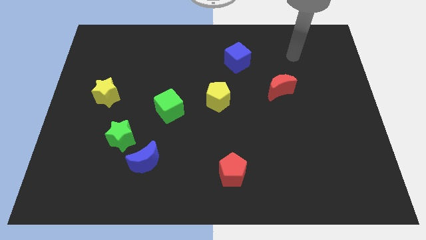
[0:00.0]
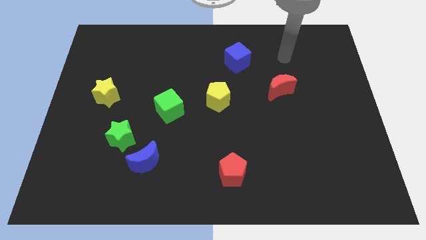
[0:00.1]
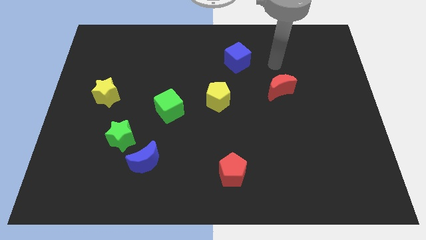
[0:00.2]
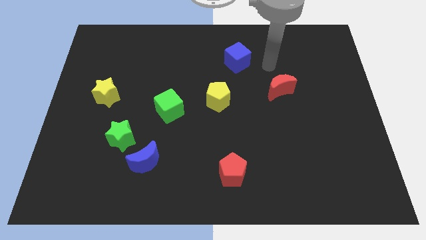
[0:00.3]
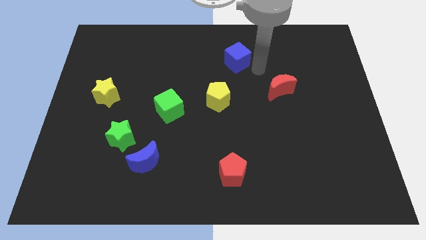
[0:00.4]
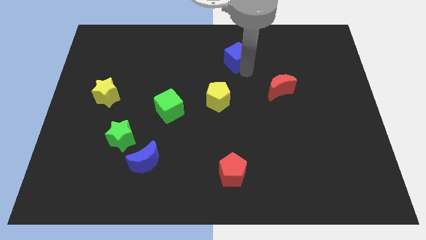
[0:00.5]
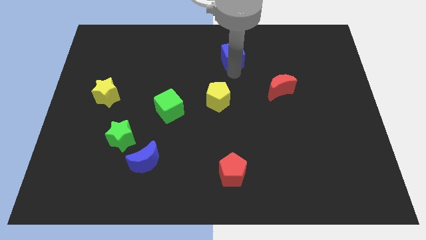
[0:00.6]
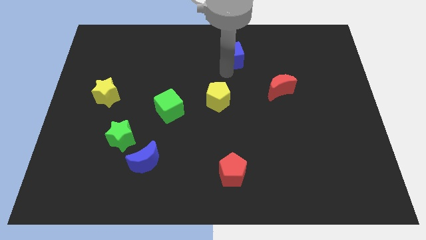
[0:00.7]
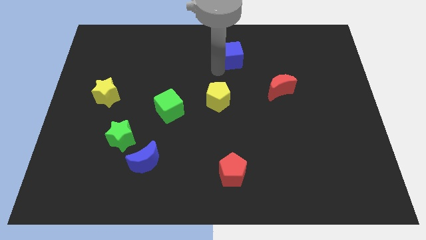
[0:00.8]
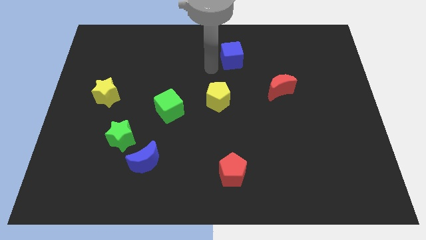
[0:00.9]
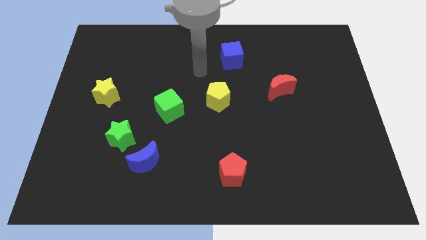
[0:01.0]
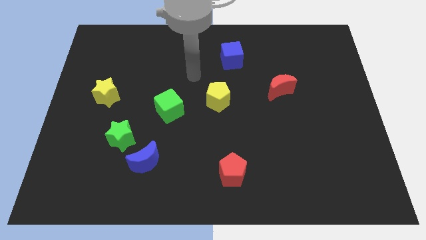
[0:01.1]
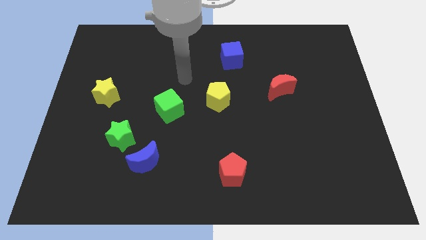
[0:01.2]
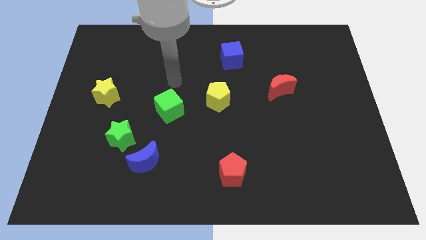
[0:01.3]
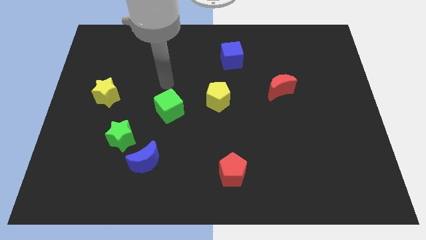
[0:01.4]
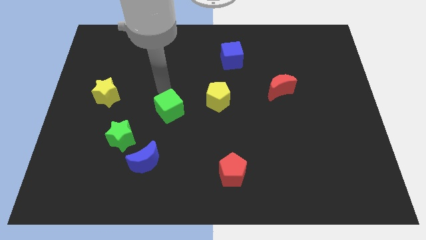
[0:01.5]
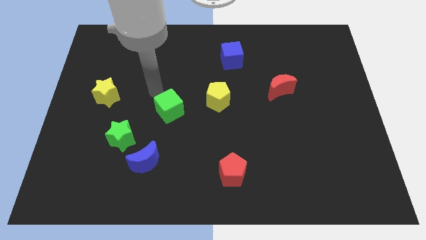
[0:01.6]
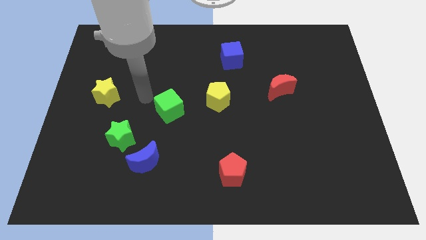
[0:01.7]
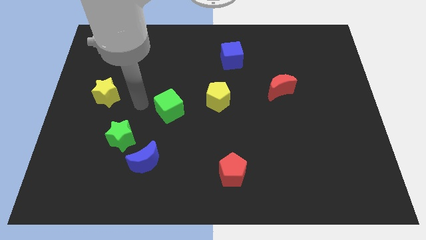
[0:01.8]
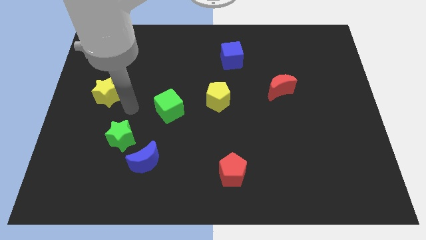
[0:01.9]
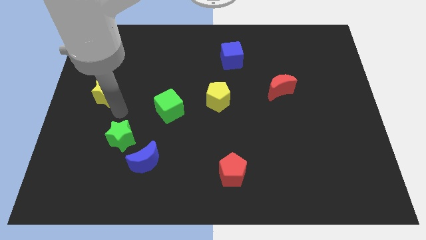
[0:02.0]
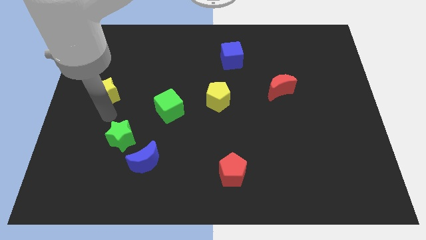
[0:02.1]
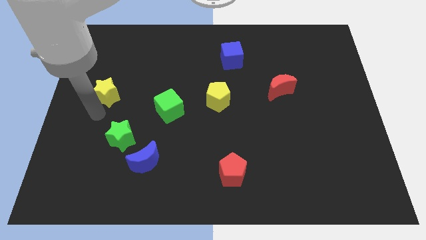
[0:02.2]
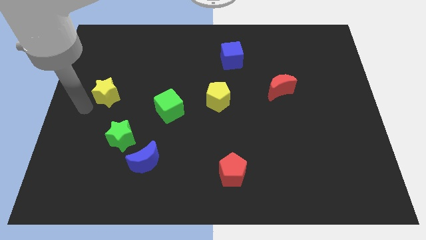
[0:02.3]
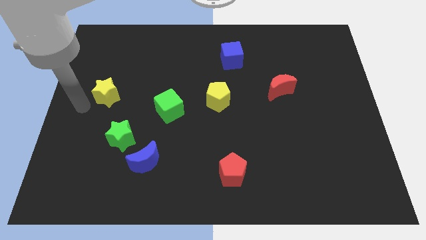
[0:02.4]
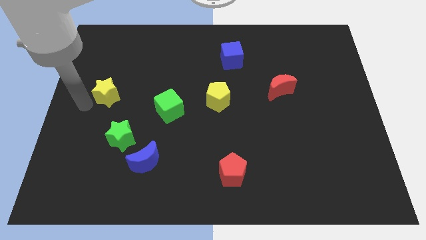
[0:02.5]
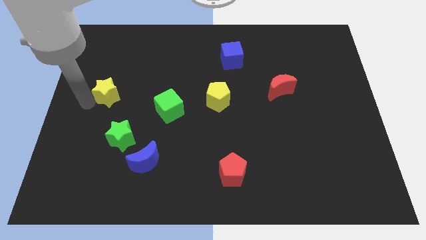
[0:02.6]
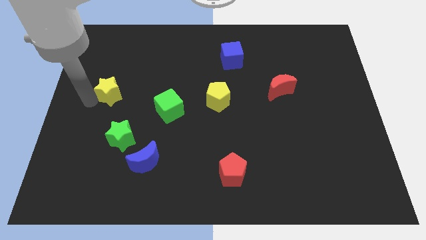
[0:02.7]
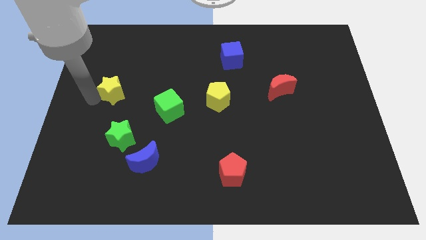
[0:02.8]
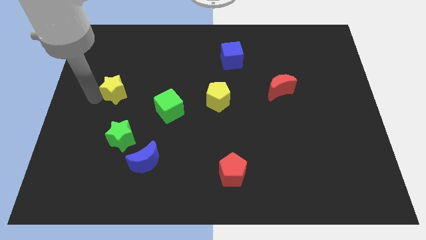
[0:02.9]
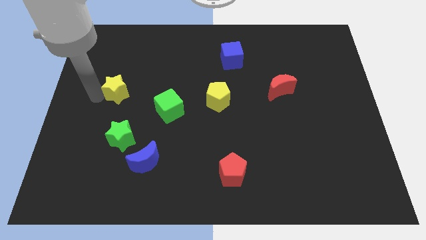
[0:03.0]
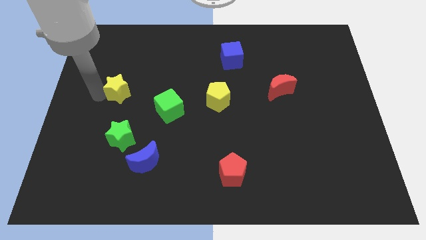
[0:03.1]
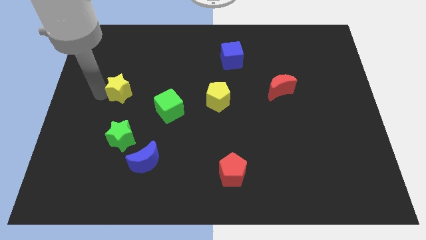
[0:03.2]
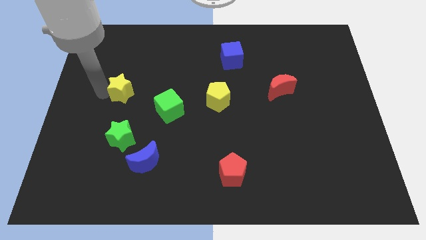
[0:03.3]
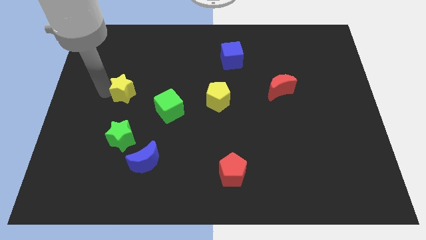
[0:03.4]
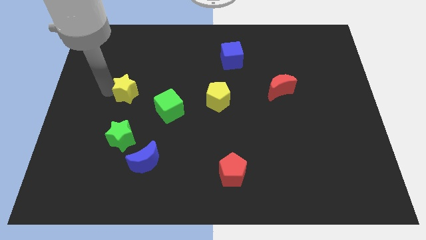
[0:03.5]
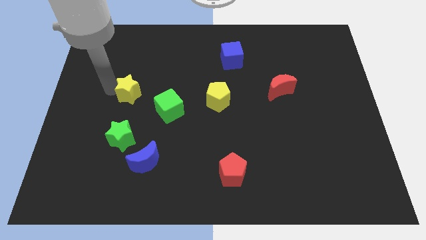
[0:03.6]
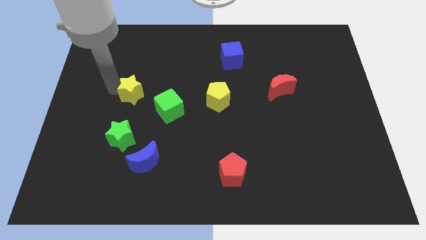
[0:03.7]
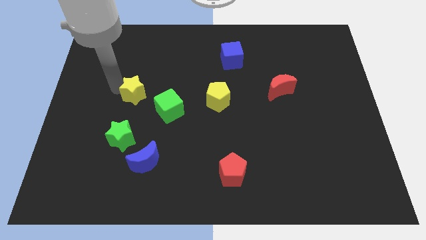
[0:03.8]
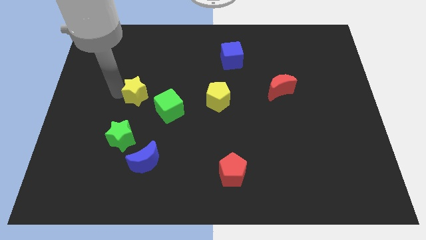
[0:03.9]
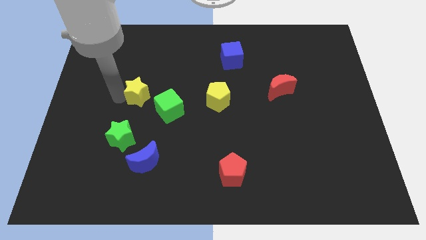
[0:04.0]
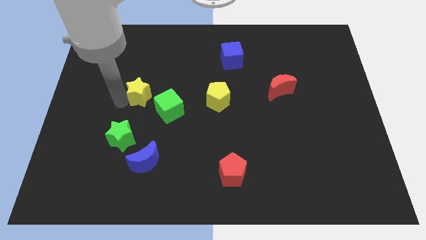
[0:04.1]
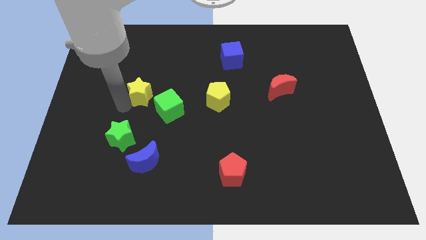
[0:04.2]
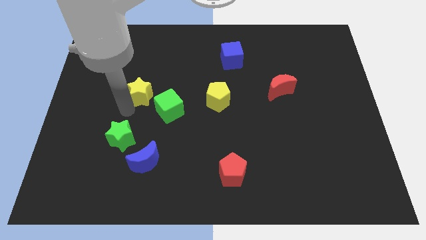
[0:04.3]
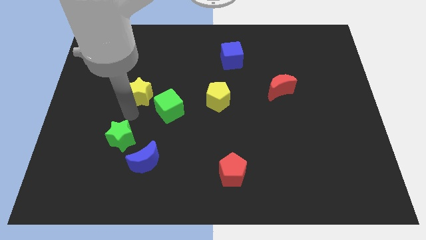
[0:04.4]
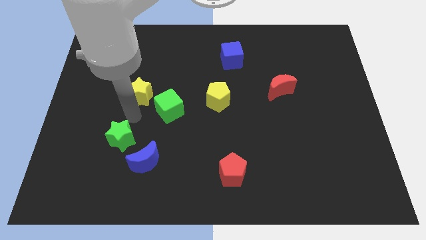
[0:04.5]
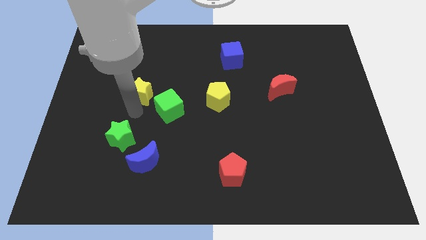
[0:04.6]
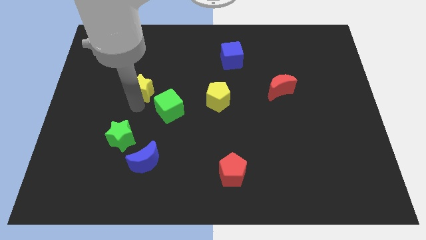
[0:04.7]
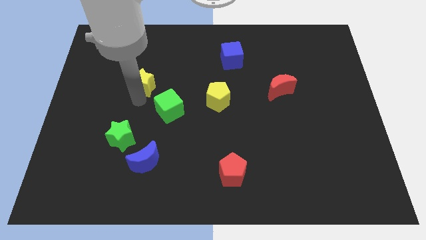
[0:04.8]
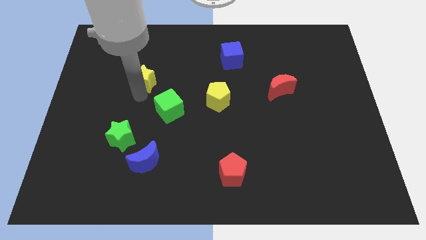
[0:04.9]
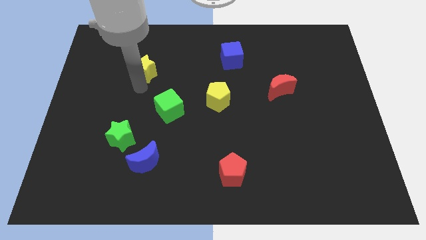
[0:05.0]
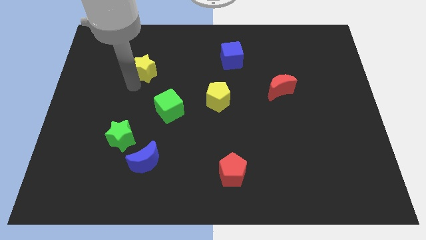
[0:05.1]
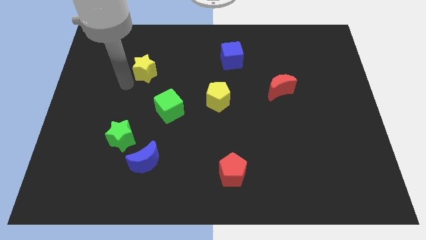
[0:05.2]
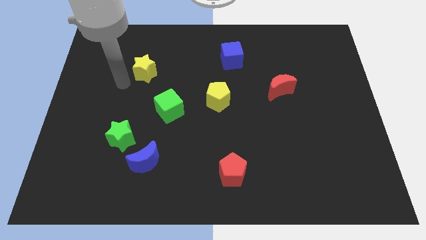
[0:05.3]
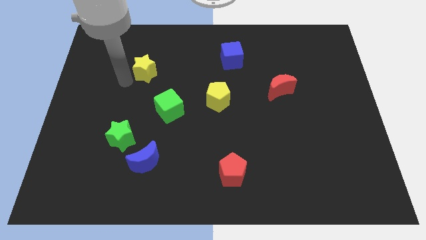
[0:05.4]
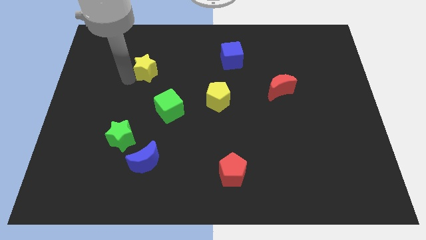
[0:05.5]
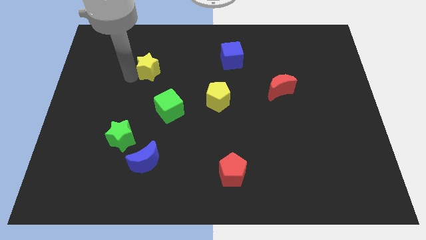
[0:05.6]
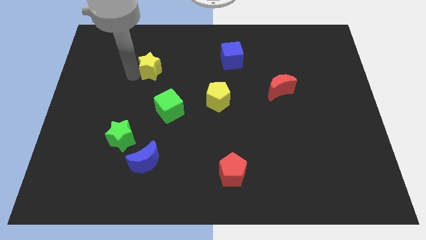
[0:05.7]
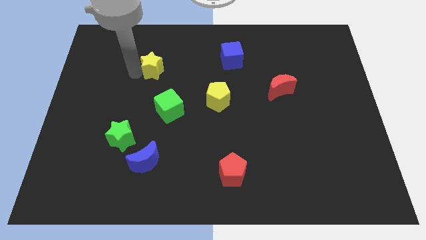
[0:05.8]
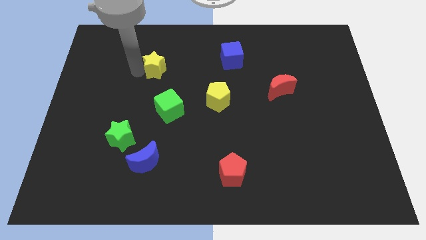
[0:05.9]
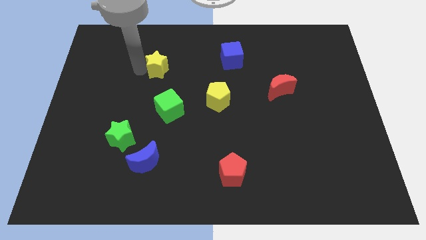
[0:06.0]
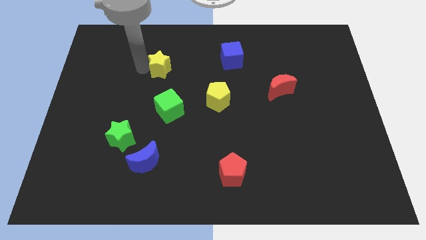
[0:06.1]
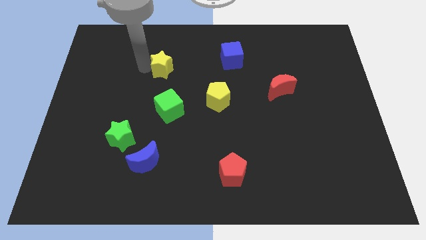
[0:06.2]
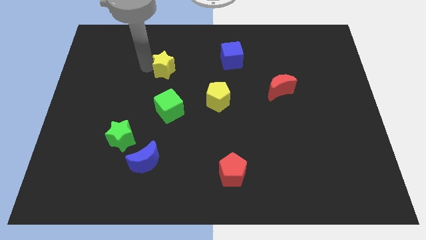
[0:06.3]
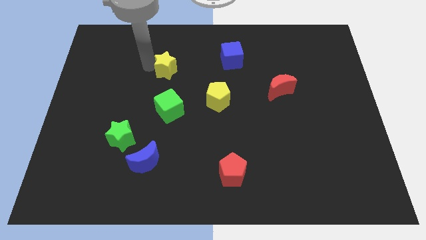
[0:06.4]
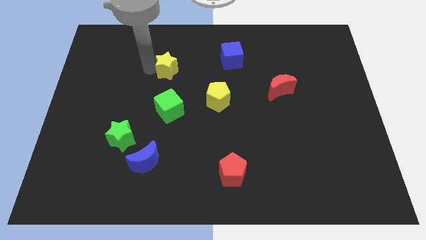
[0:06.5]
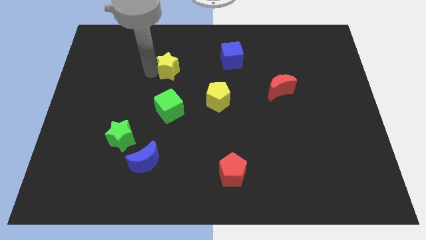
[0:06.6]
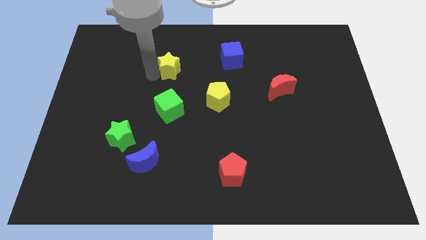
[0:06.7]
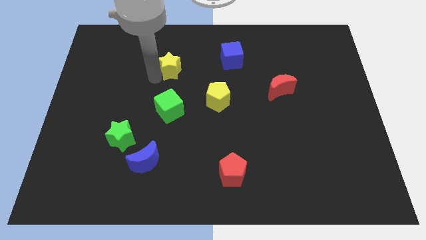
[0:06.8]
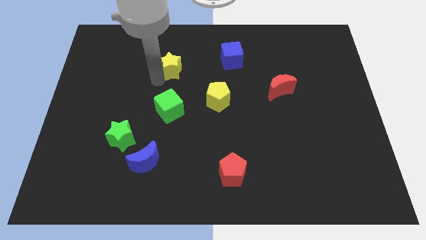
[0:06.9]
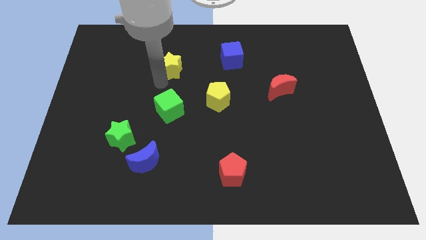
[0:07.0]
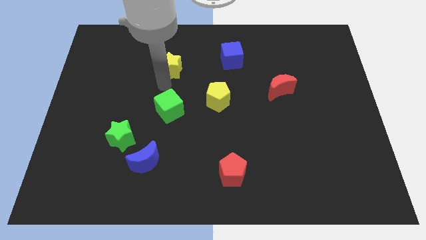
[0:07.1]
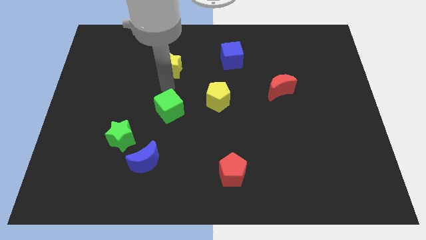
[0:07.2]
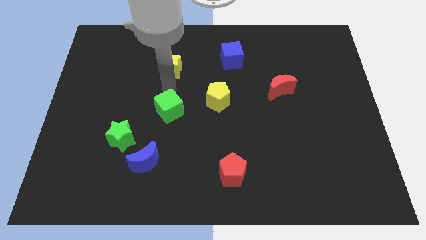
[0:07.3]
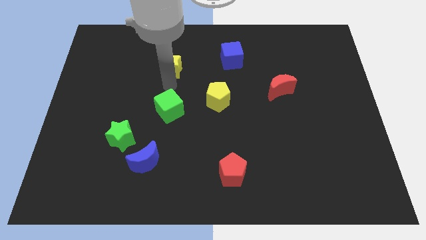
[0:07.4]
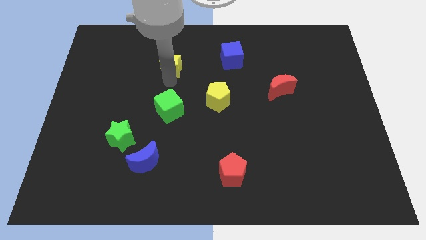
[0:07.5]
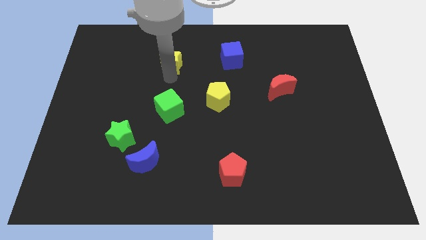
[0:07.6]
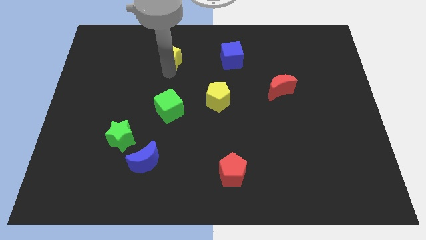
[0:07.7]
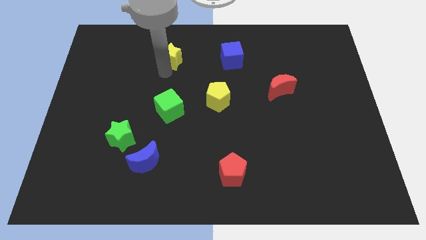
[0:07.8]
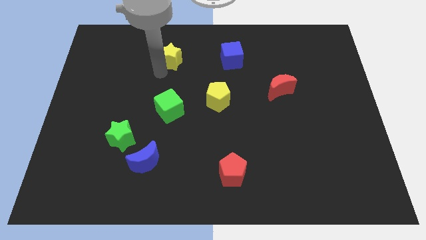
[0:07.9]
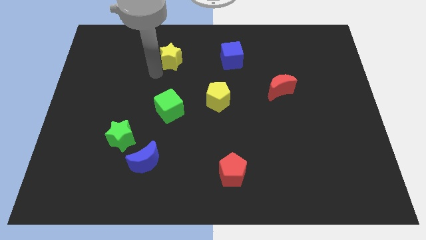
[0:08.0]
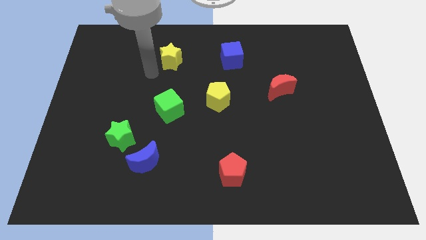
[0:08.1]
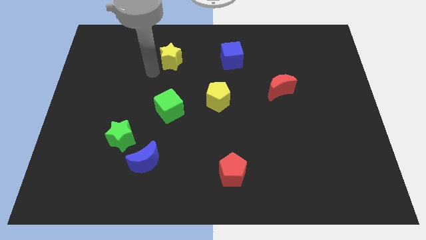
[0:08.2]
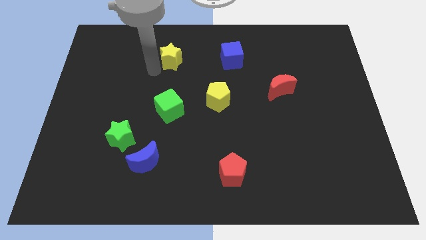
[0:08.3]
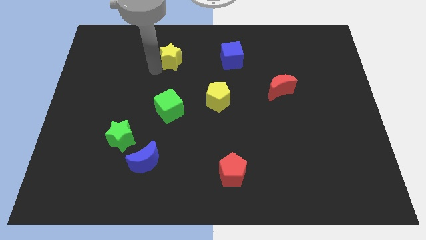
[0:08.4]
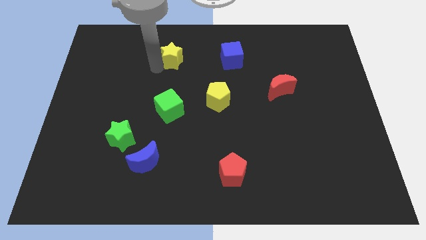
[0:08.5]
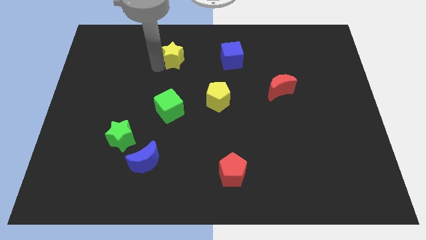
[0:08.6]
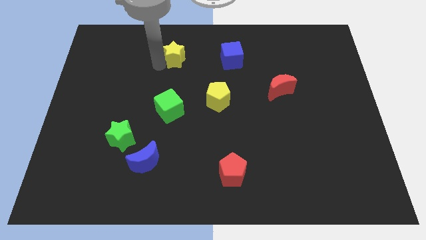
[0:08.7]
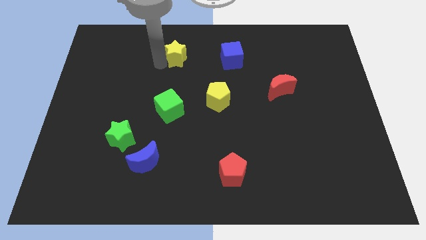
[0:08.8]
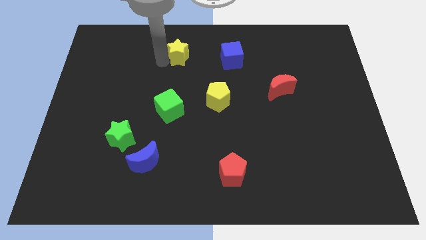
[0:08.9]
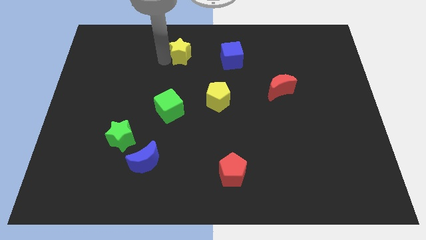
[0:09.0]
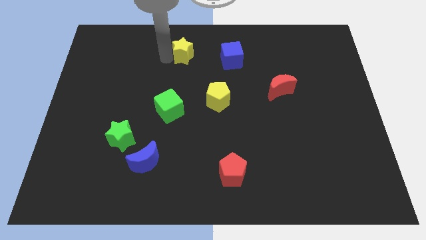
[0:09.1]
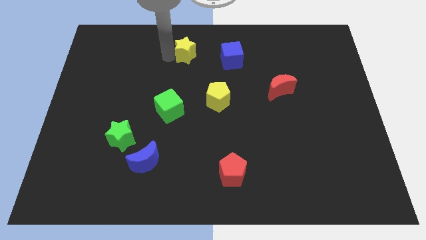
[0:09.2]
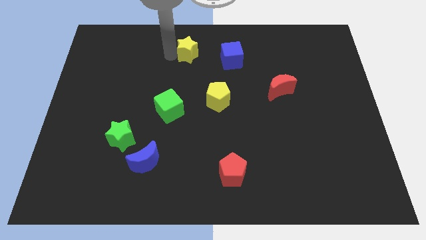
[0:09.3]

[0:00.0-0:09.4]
move the yellow star to the top side
